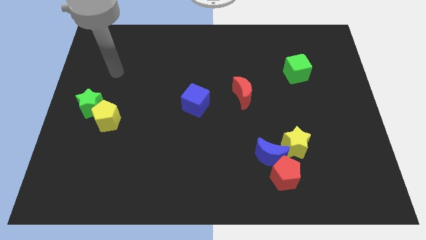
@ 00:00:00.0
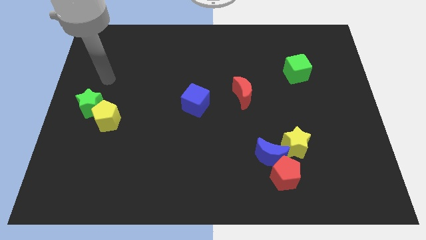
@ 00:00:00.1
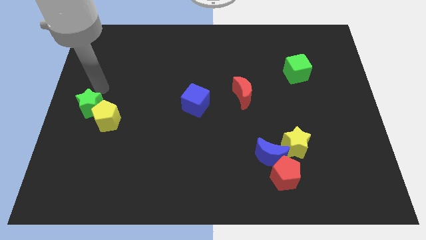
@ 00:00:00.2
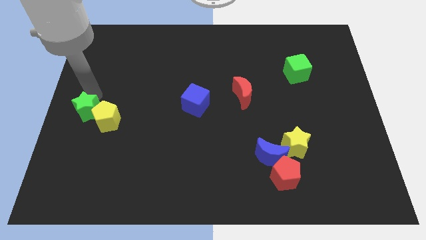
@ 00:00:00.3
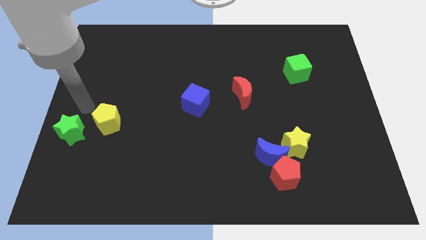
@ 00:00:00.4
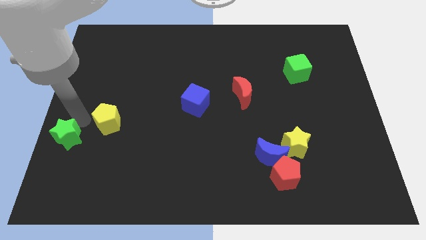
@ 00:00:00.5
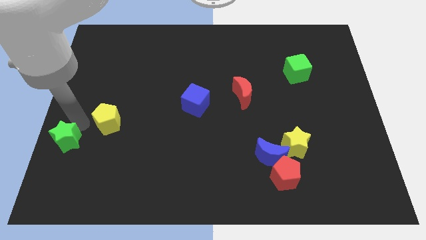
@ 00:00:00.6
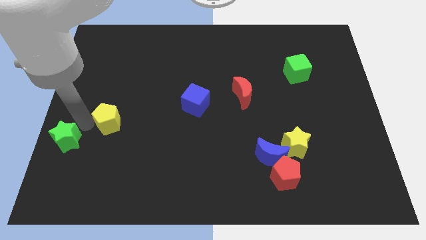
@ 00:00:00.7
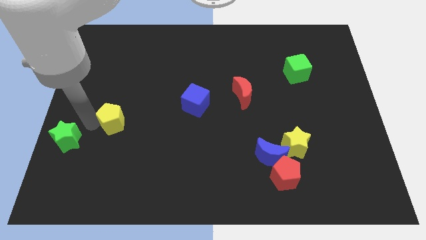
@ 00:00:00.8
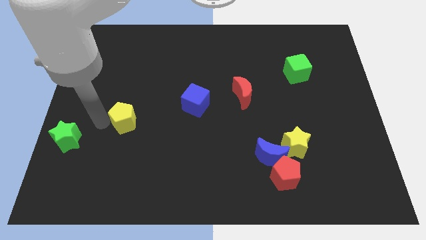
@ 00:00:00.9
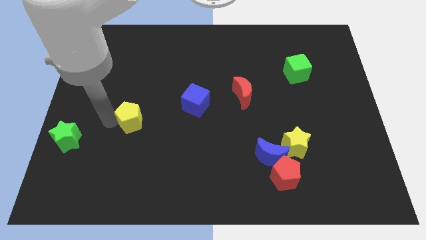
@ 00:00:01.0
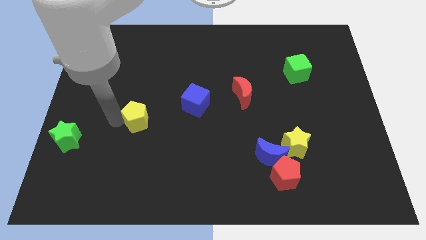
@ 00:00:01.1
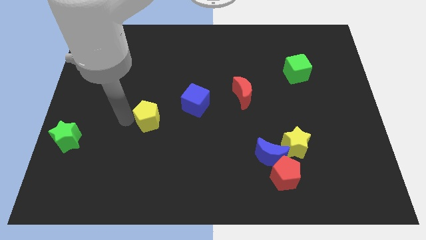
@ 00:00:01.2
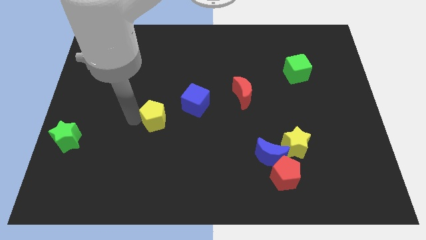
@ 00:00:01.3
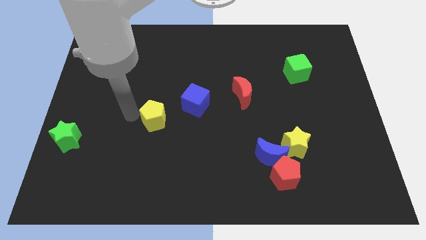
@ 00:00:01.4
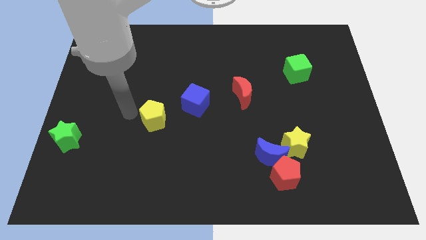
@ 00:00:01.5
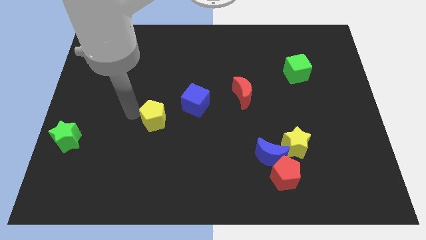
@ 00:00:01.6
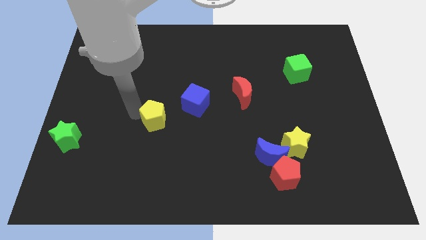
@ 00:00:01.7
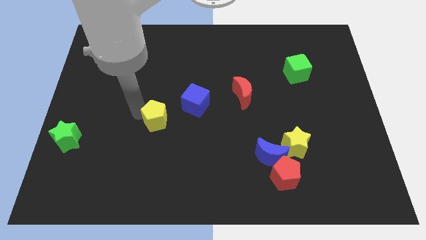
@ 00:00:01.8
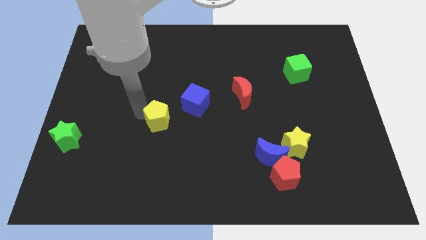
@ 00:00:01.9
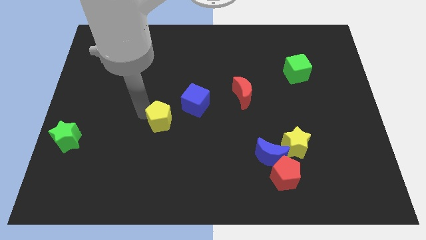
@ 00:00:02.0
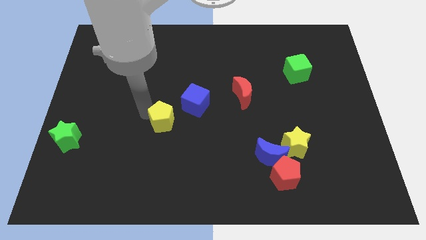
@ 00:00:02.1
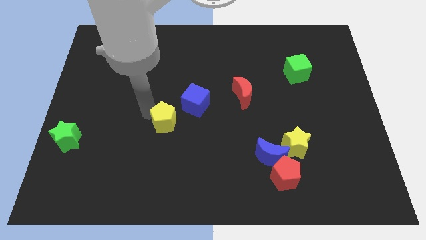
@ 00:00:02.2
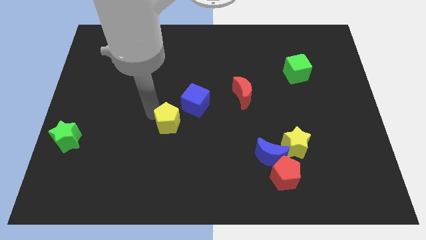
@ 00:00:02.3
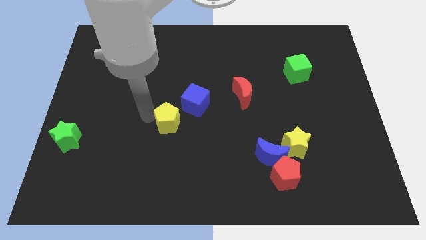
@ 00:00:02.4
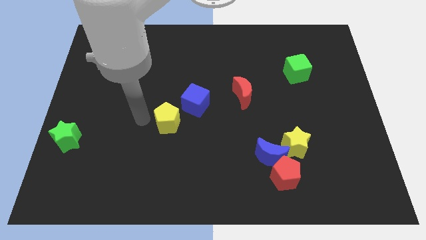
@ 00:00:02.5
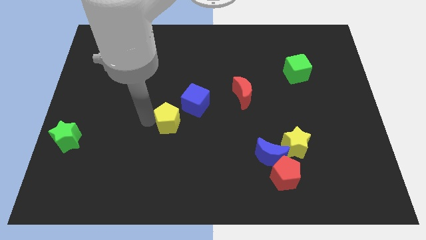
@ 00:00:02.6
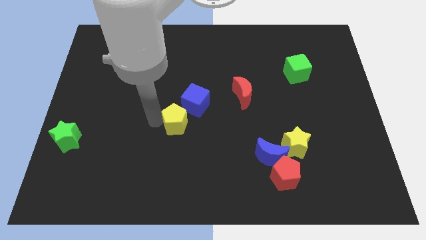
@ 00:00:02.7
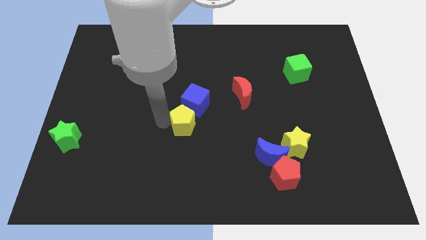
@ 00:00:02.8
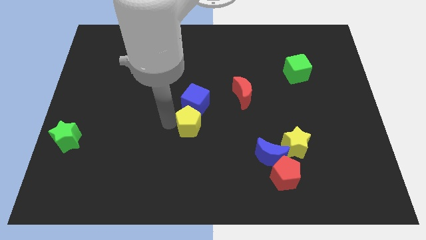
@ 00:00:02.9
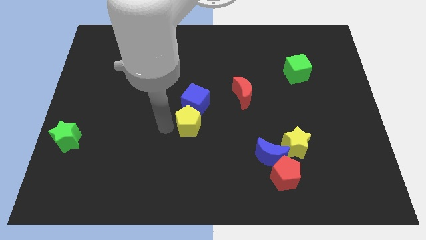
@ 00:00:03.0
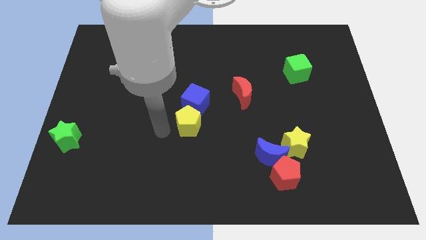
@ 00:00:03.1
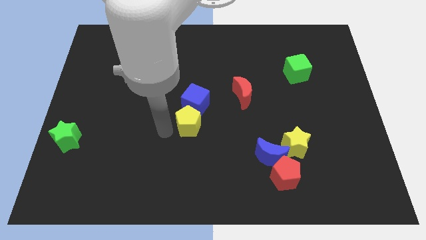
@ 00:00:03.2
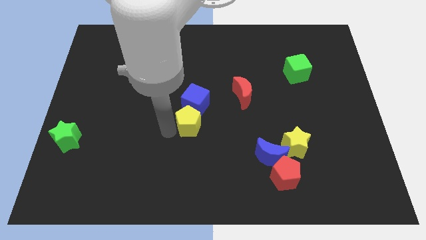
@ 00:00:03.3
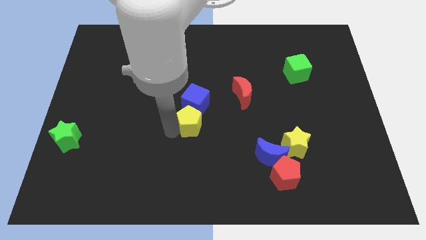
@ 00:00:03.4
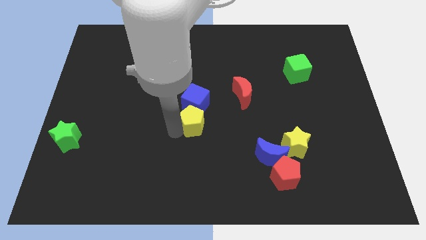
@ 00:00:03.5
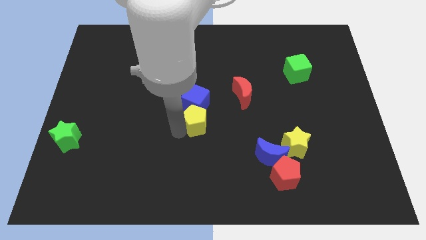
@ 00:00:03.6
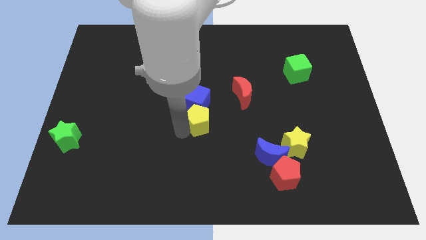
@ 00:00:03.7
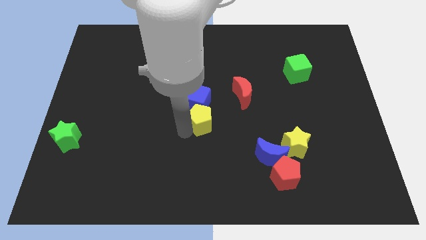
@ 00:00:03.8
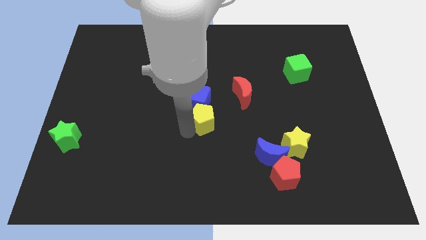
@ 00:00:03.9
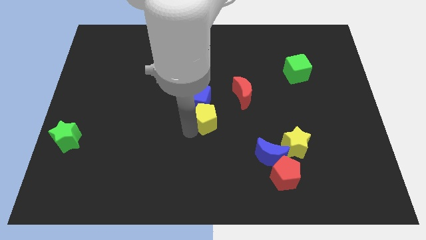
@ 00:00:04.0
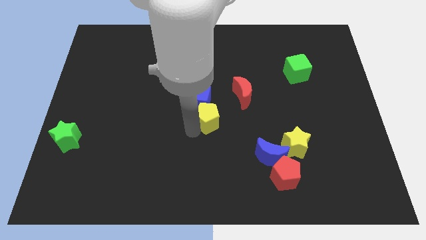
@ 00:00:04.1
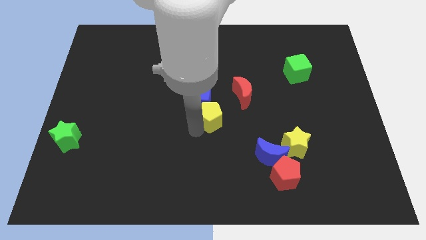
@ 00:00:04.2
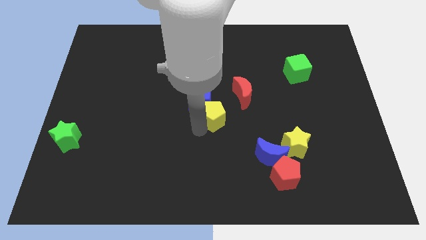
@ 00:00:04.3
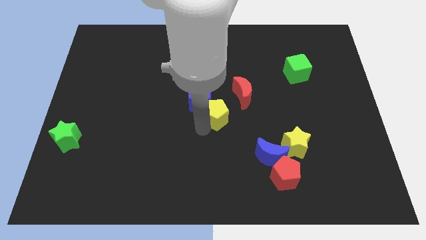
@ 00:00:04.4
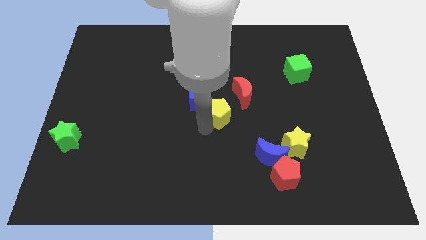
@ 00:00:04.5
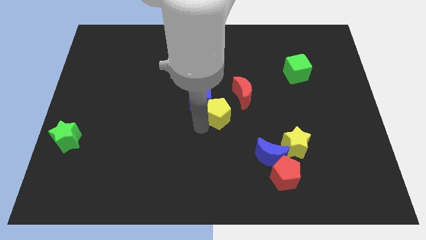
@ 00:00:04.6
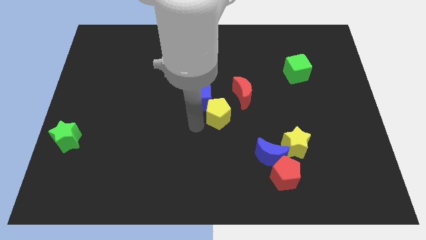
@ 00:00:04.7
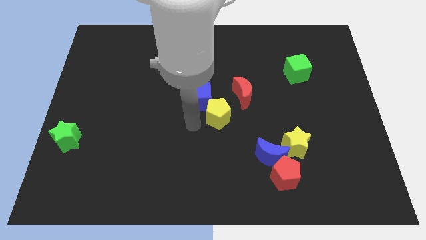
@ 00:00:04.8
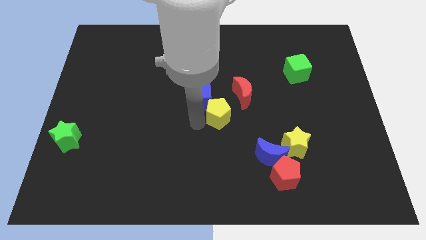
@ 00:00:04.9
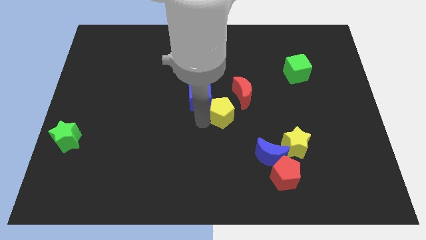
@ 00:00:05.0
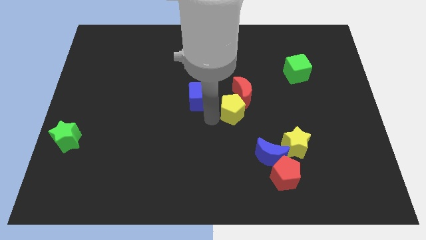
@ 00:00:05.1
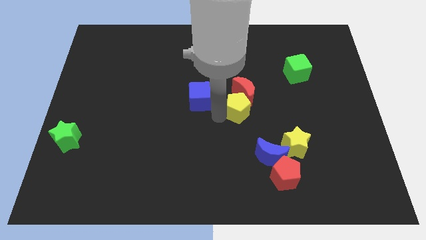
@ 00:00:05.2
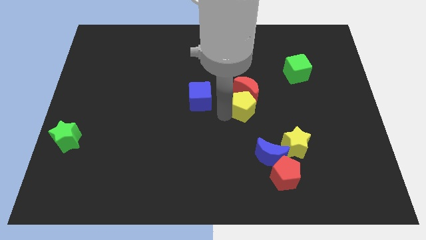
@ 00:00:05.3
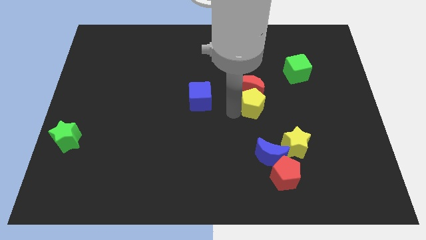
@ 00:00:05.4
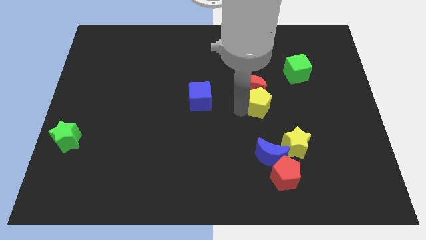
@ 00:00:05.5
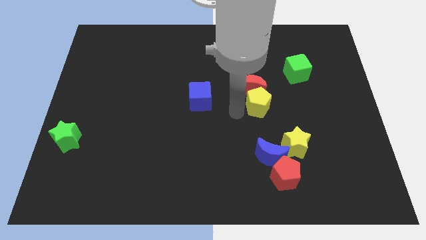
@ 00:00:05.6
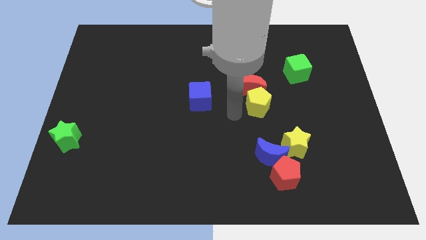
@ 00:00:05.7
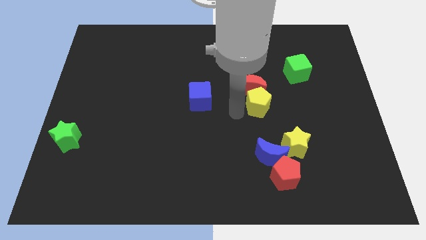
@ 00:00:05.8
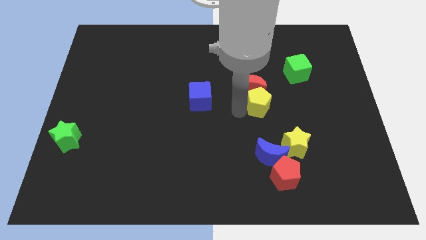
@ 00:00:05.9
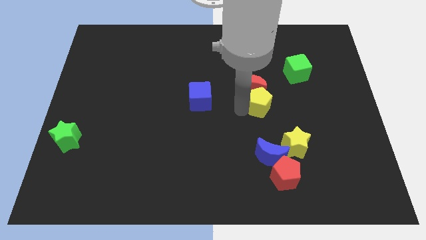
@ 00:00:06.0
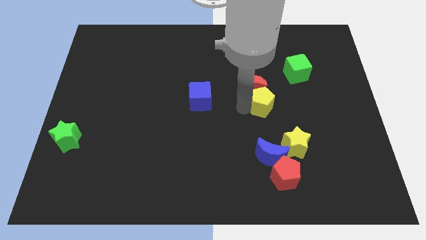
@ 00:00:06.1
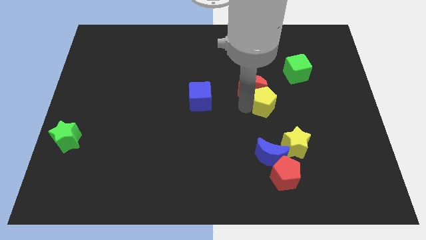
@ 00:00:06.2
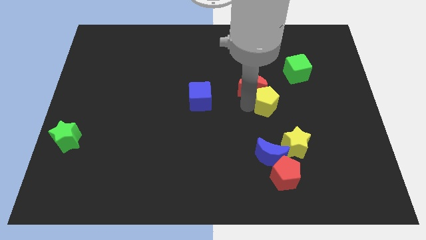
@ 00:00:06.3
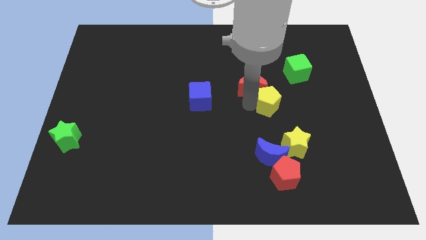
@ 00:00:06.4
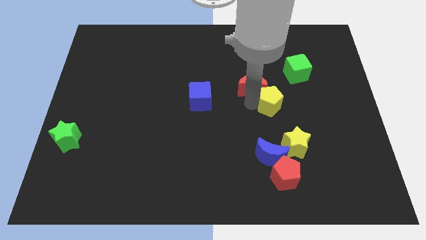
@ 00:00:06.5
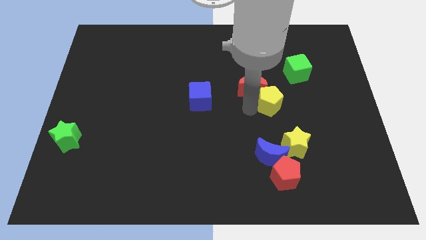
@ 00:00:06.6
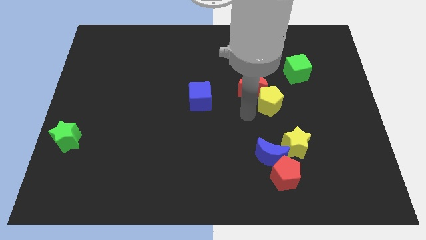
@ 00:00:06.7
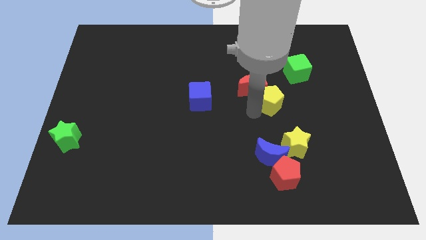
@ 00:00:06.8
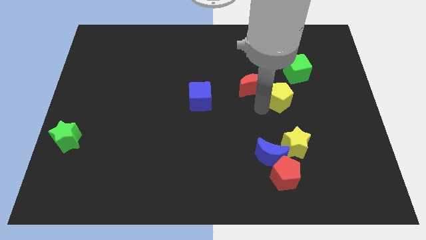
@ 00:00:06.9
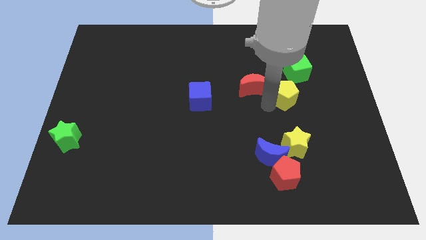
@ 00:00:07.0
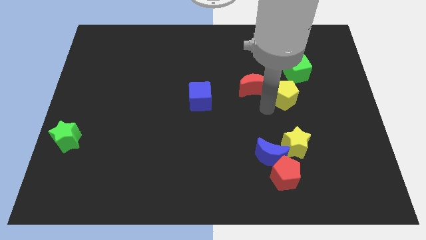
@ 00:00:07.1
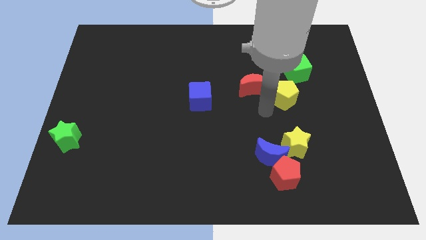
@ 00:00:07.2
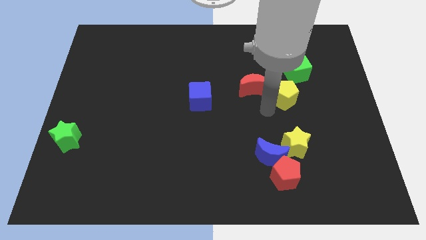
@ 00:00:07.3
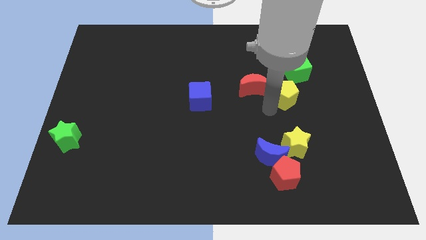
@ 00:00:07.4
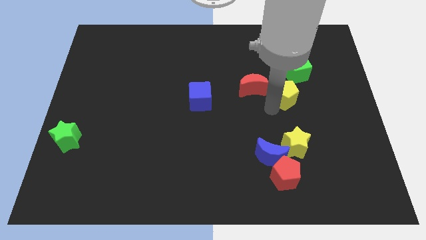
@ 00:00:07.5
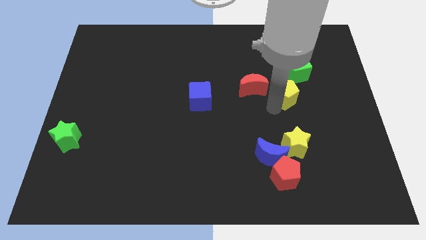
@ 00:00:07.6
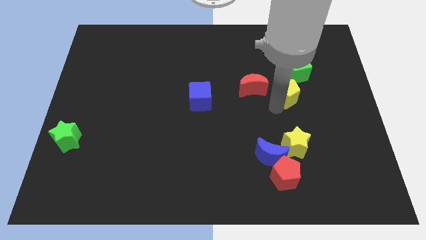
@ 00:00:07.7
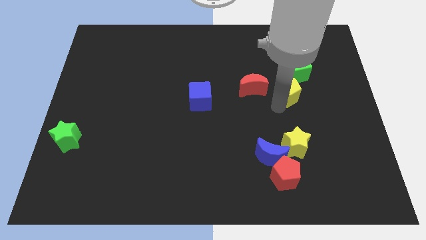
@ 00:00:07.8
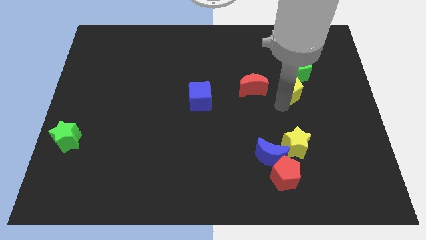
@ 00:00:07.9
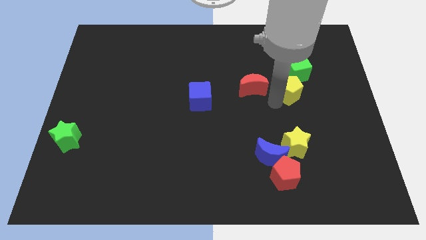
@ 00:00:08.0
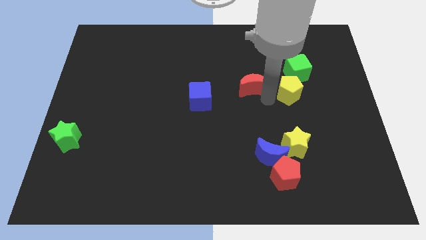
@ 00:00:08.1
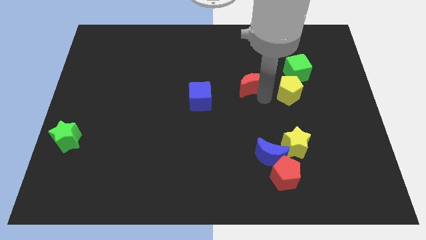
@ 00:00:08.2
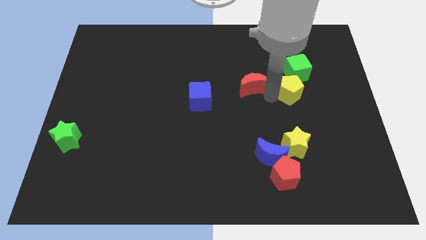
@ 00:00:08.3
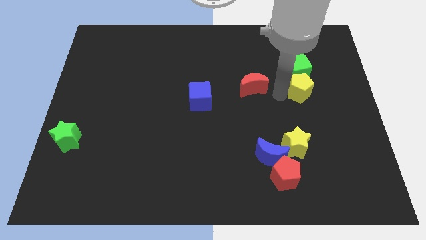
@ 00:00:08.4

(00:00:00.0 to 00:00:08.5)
move the yellow pentagon to the bottom right of the green cube
